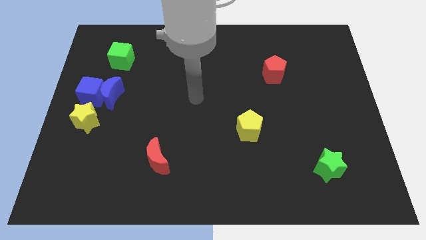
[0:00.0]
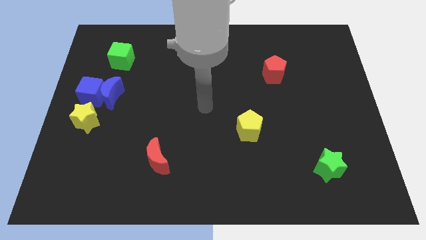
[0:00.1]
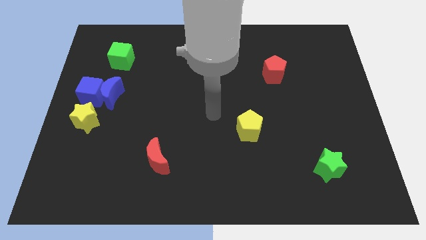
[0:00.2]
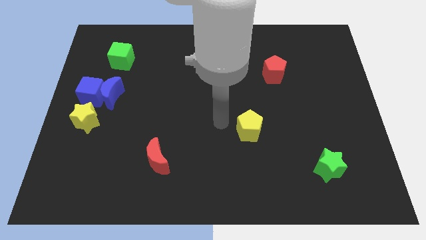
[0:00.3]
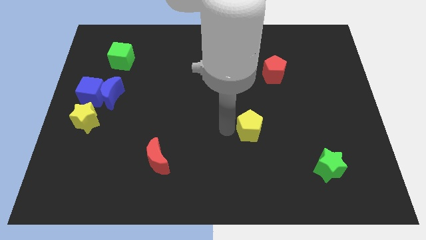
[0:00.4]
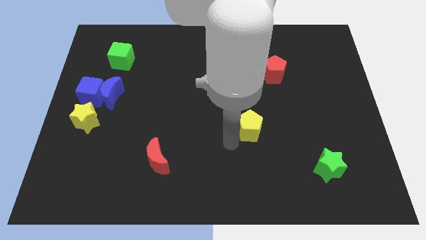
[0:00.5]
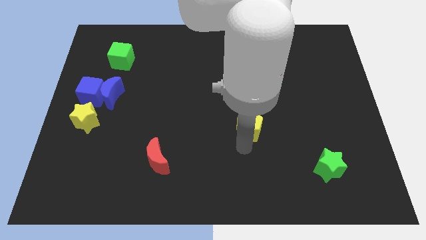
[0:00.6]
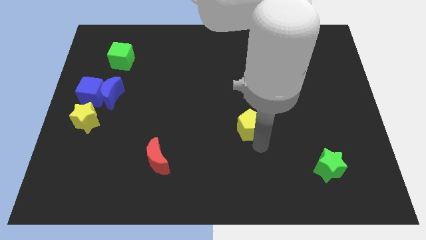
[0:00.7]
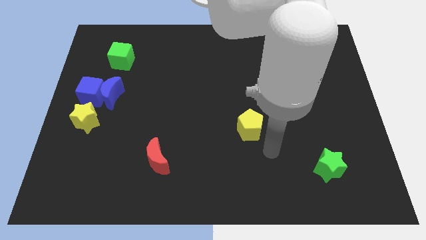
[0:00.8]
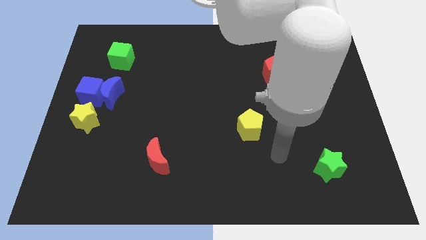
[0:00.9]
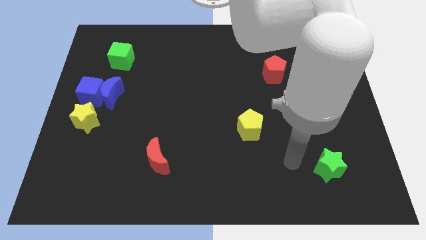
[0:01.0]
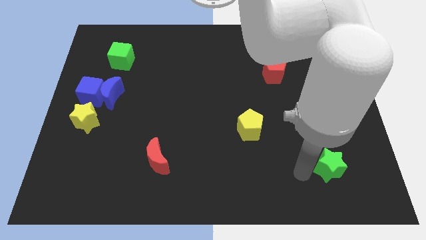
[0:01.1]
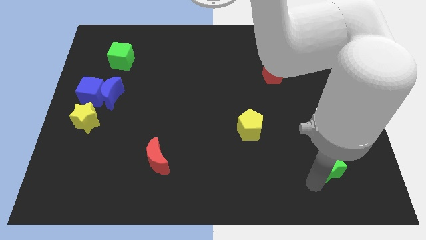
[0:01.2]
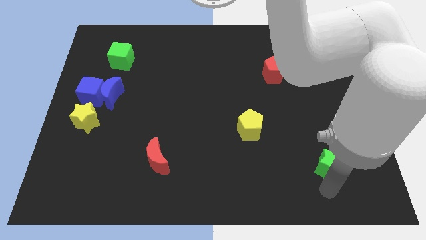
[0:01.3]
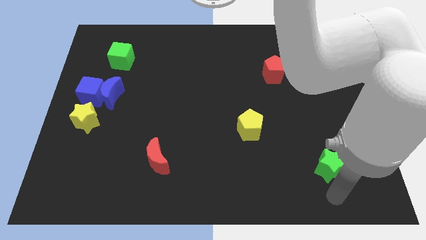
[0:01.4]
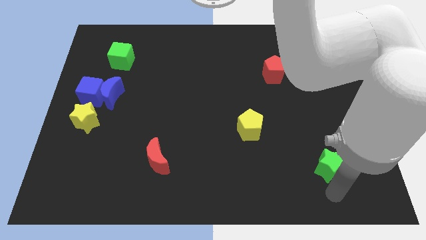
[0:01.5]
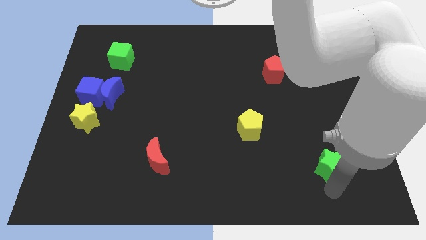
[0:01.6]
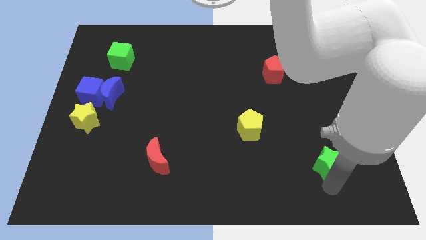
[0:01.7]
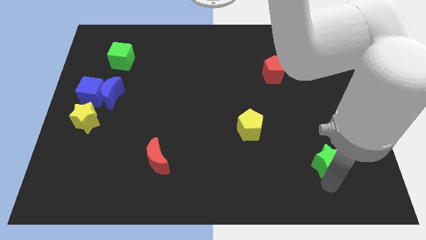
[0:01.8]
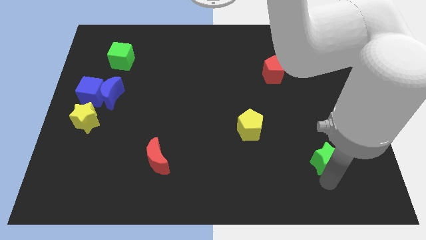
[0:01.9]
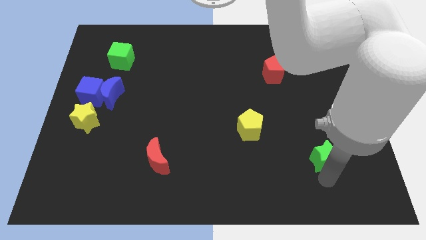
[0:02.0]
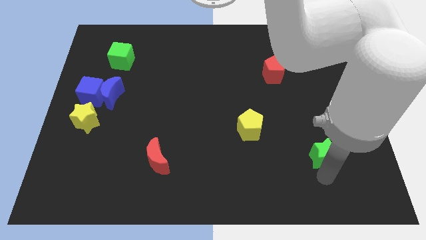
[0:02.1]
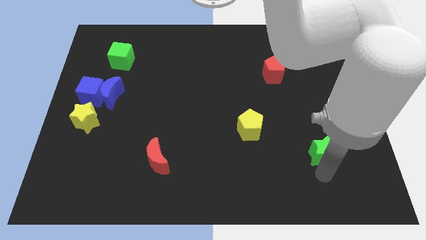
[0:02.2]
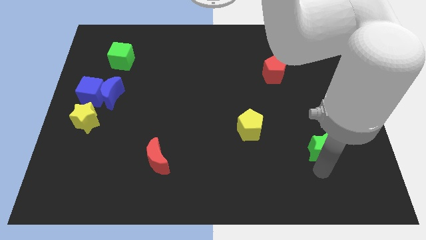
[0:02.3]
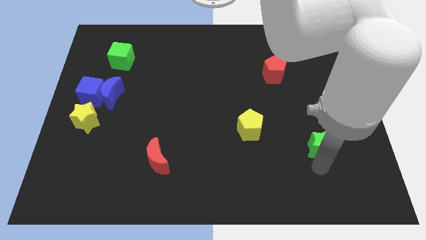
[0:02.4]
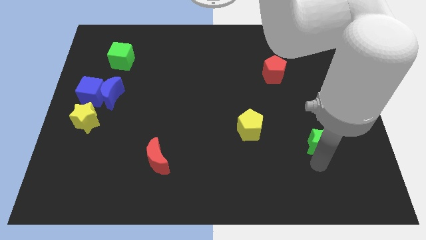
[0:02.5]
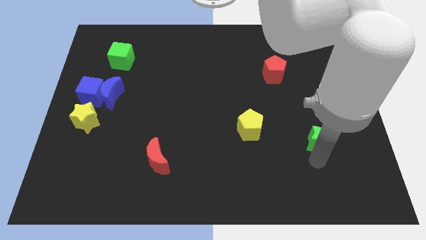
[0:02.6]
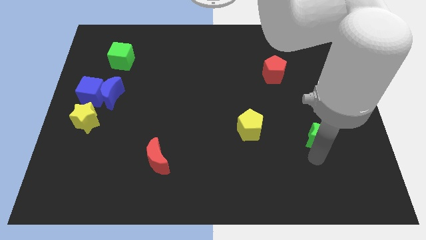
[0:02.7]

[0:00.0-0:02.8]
slightly move the green star up

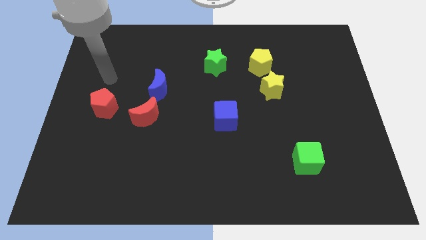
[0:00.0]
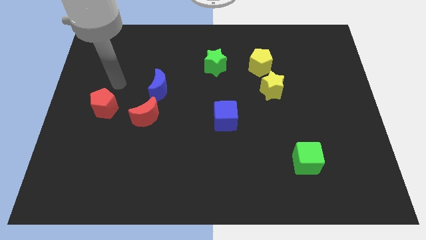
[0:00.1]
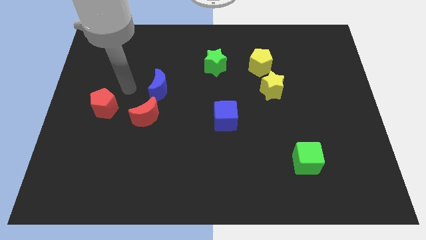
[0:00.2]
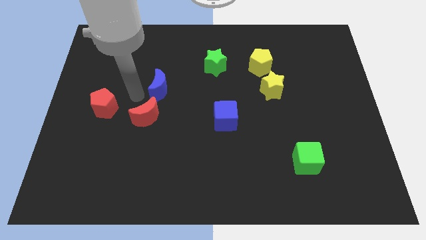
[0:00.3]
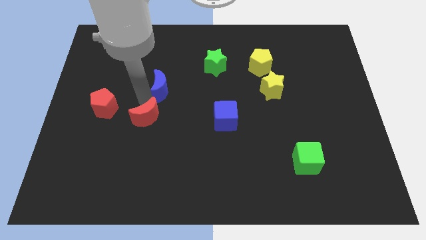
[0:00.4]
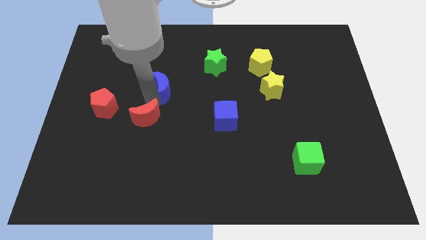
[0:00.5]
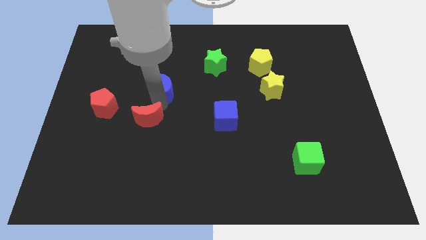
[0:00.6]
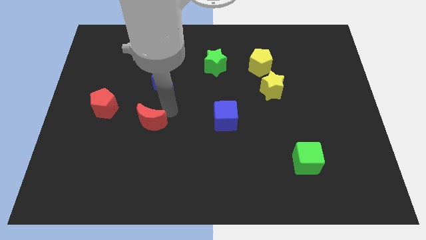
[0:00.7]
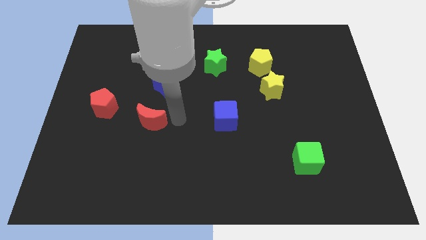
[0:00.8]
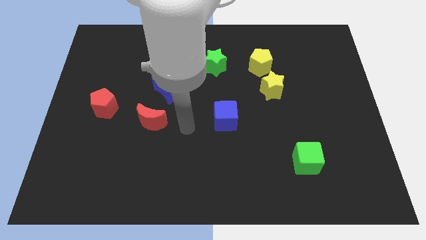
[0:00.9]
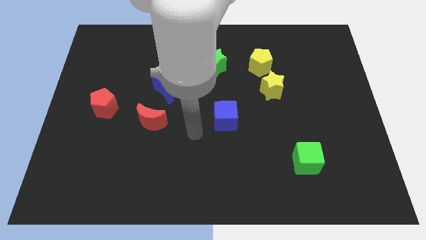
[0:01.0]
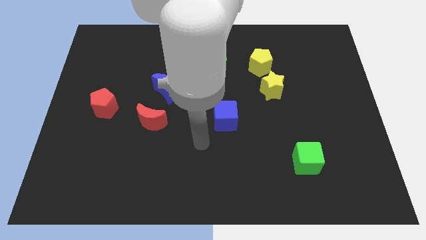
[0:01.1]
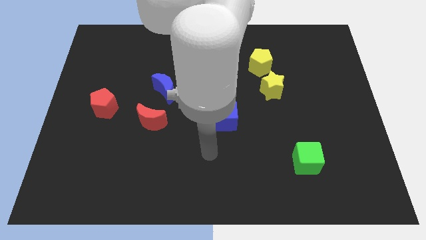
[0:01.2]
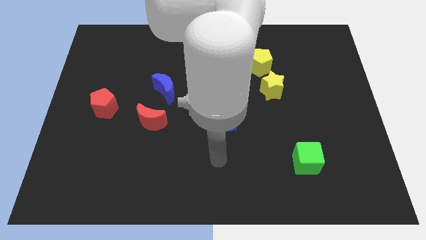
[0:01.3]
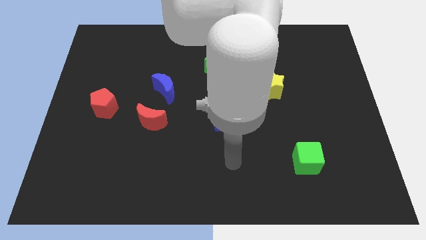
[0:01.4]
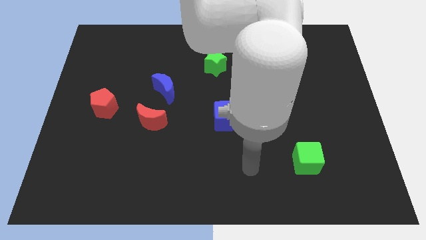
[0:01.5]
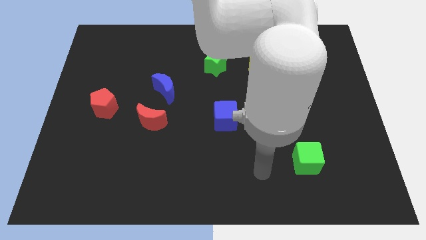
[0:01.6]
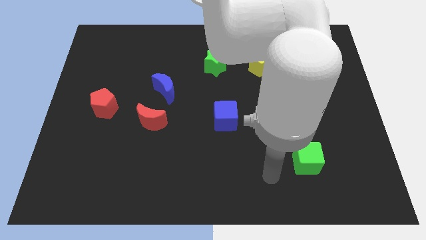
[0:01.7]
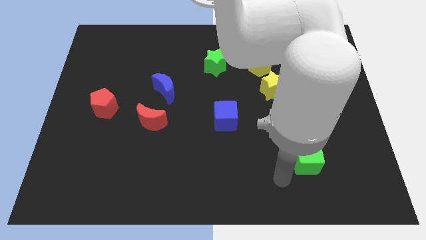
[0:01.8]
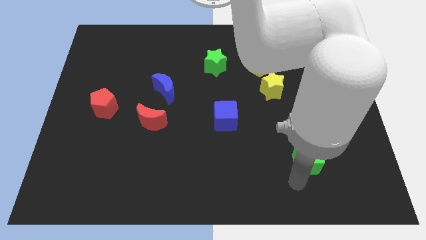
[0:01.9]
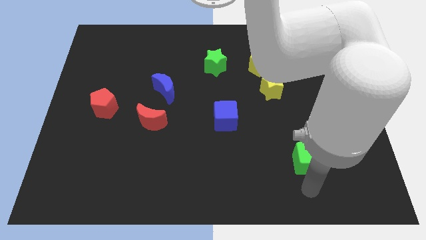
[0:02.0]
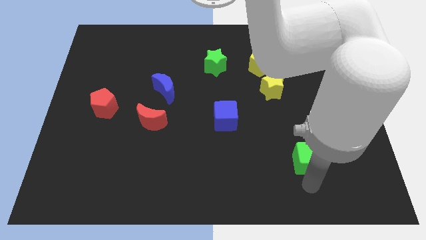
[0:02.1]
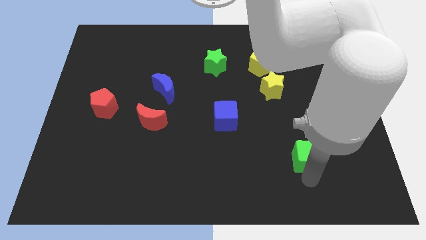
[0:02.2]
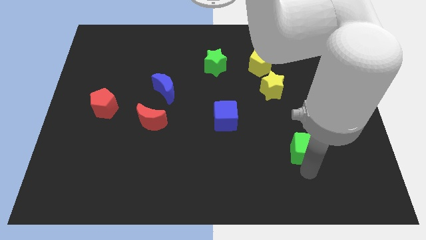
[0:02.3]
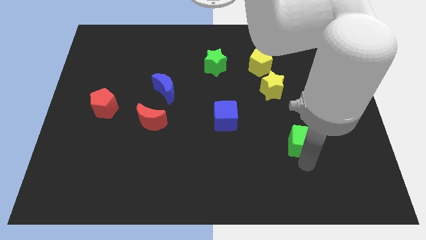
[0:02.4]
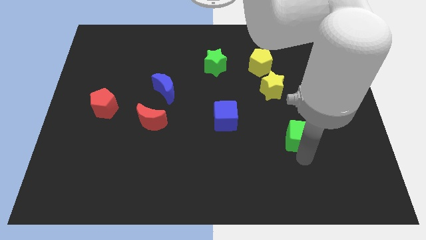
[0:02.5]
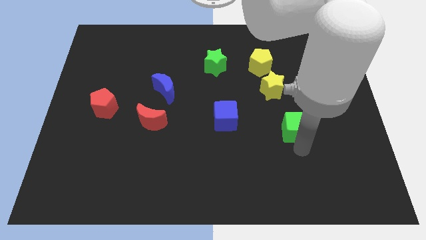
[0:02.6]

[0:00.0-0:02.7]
slide the green cube a bit upwards

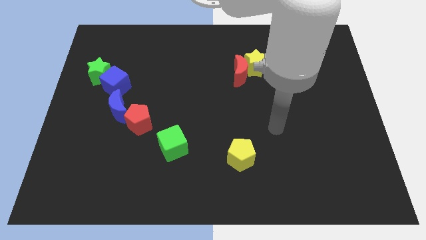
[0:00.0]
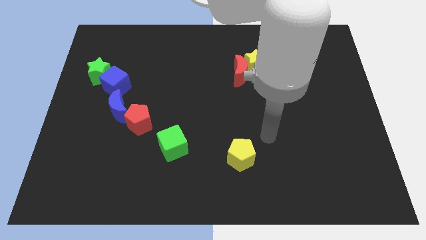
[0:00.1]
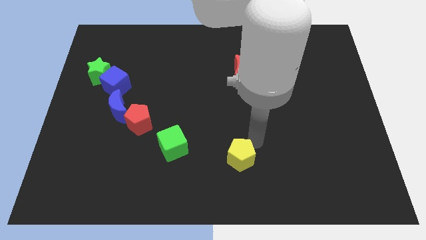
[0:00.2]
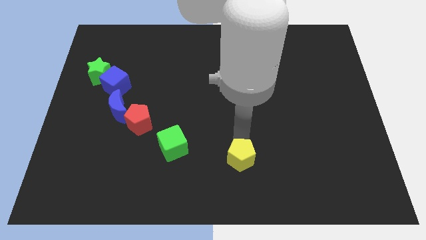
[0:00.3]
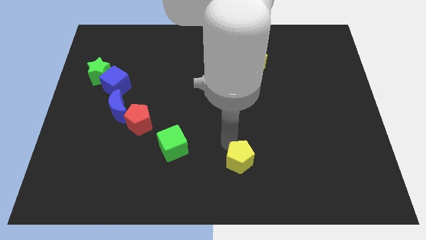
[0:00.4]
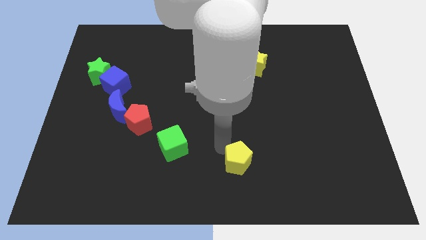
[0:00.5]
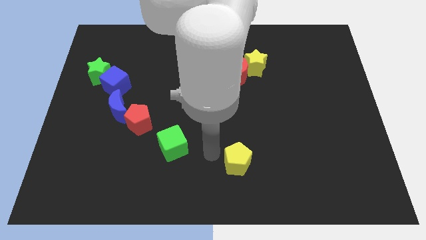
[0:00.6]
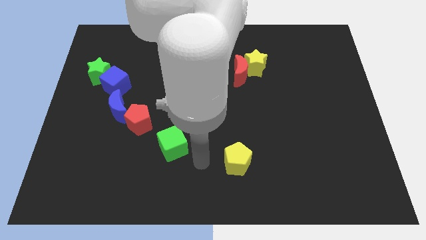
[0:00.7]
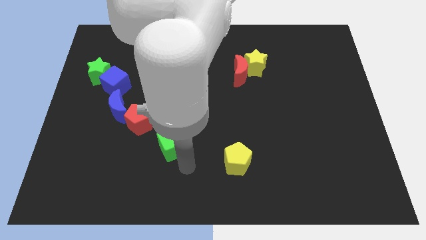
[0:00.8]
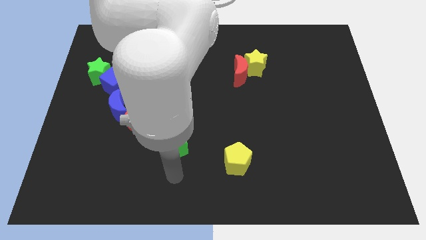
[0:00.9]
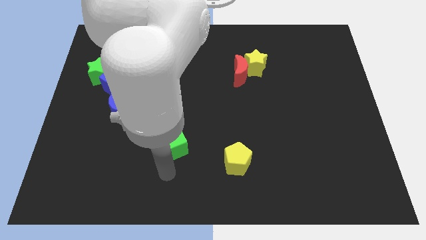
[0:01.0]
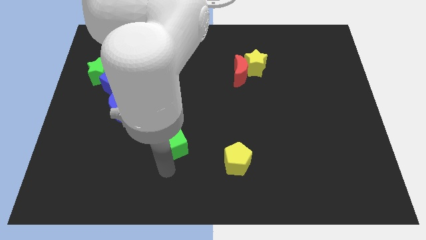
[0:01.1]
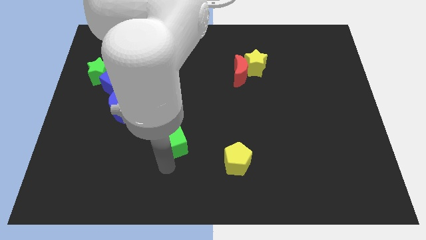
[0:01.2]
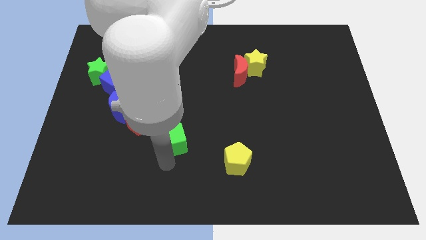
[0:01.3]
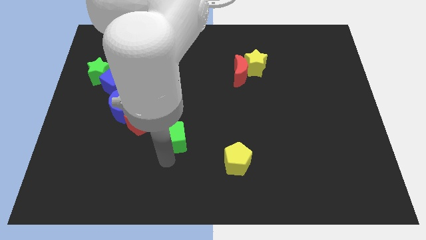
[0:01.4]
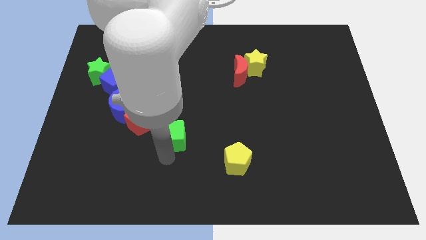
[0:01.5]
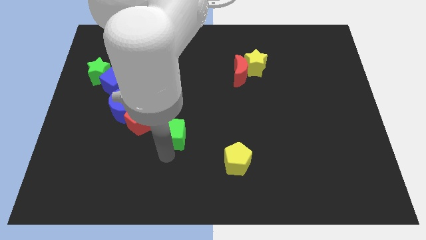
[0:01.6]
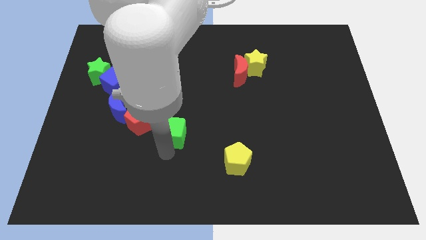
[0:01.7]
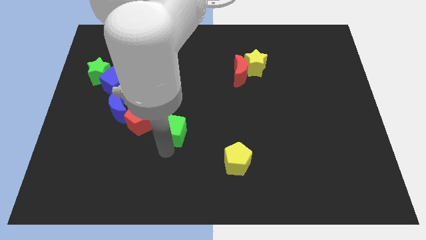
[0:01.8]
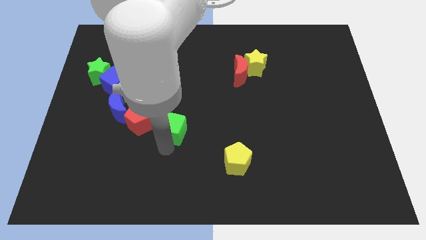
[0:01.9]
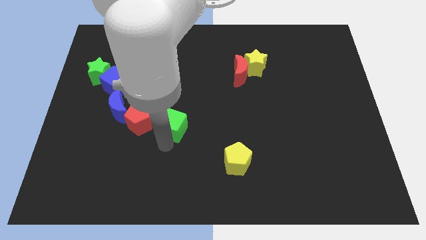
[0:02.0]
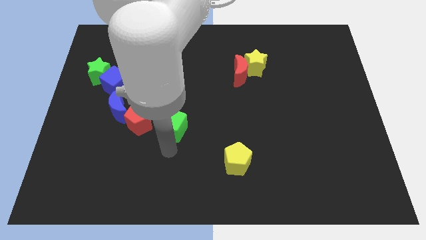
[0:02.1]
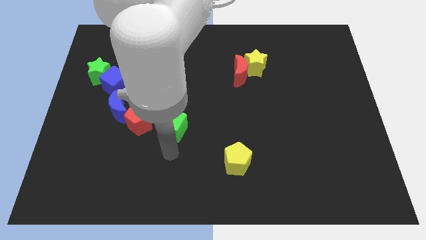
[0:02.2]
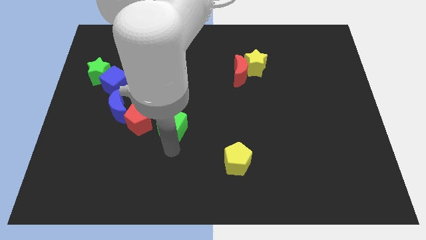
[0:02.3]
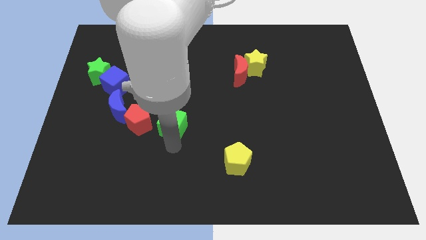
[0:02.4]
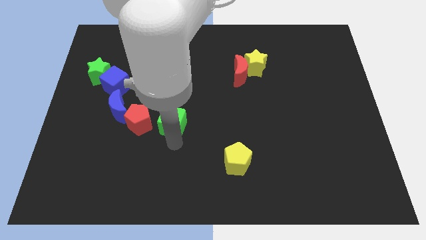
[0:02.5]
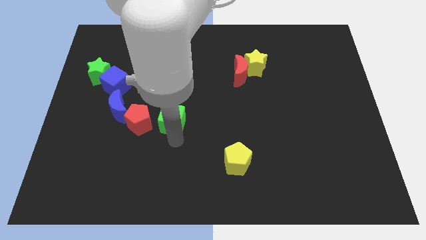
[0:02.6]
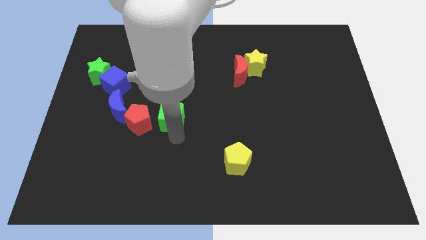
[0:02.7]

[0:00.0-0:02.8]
push the green cube a little up

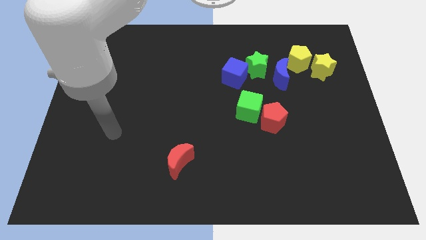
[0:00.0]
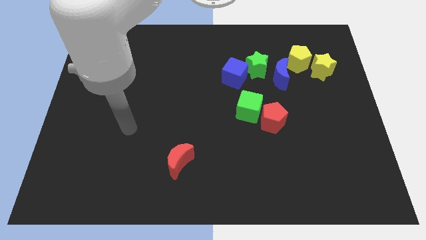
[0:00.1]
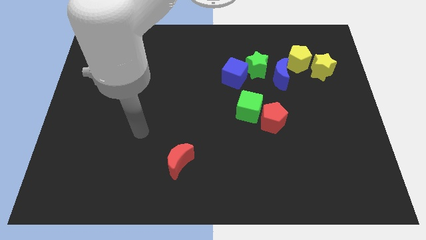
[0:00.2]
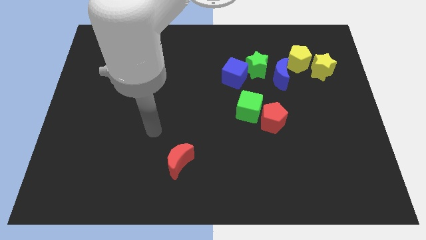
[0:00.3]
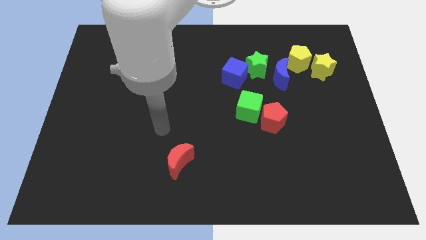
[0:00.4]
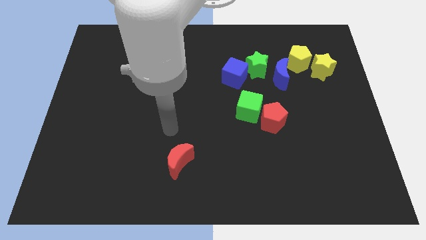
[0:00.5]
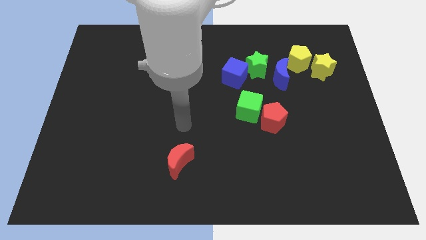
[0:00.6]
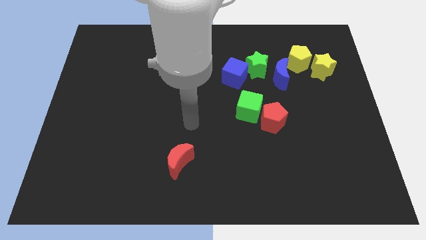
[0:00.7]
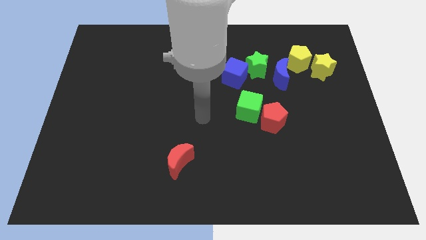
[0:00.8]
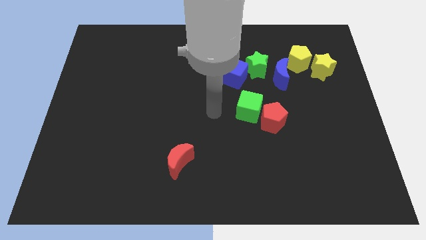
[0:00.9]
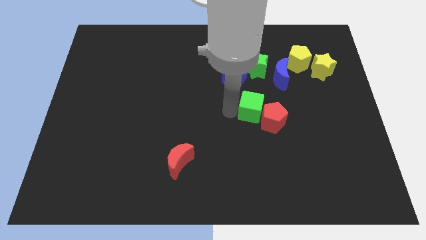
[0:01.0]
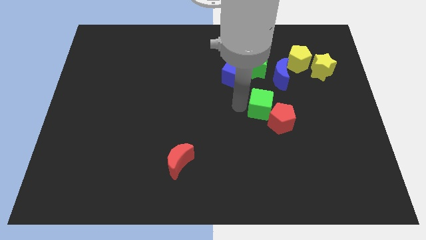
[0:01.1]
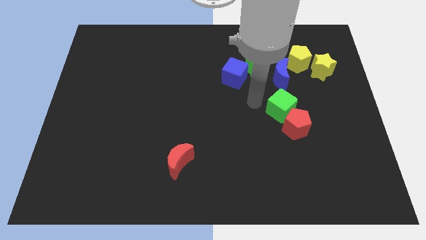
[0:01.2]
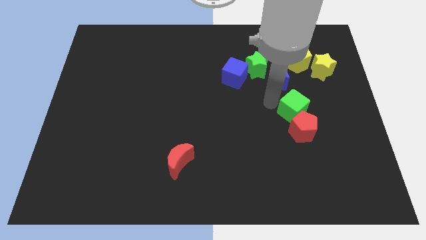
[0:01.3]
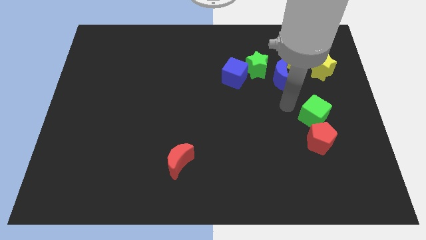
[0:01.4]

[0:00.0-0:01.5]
slightly move the red pentagon downwards and then right
